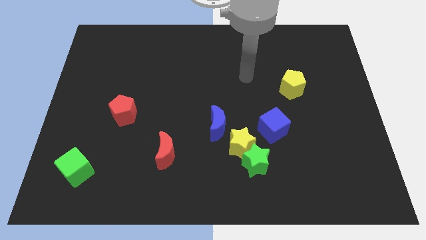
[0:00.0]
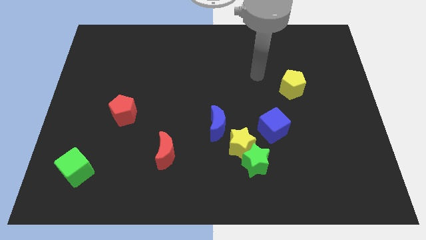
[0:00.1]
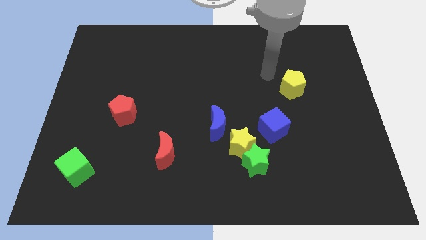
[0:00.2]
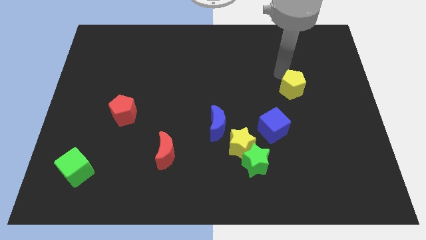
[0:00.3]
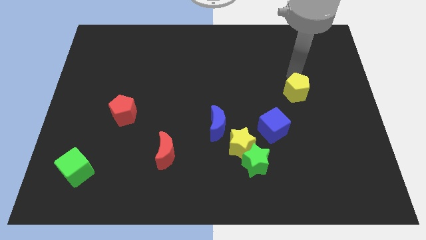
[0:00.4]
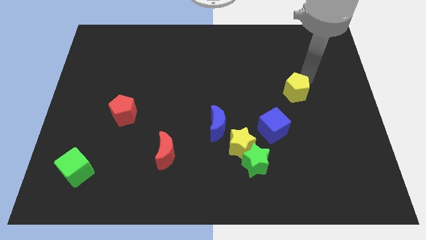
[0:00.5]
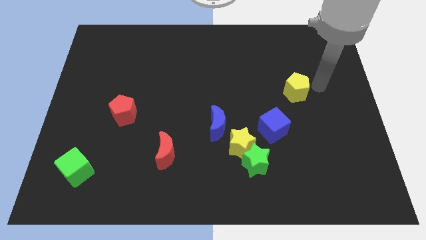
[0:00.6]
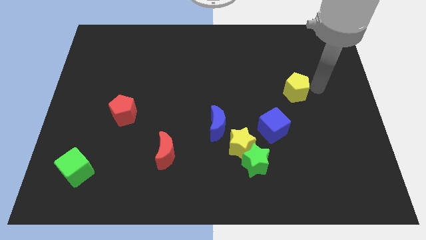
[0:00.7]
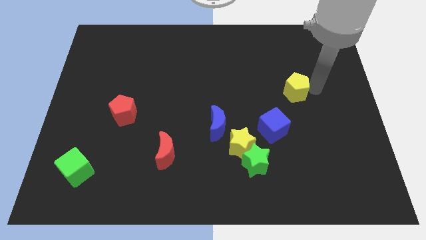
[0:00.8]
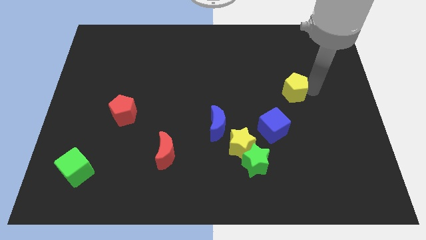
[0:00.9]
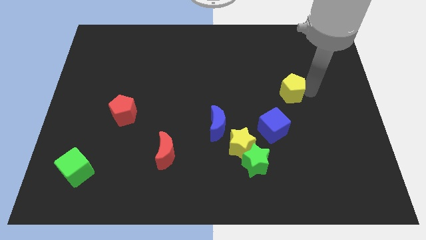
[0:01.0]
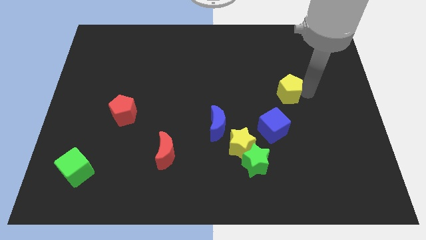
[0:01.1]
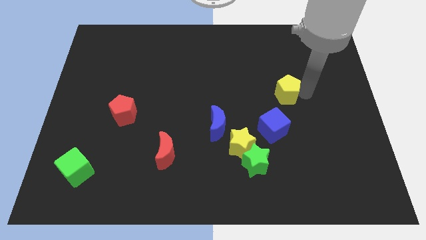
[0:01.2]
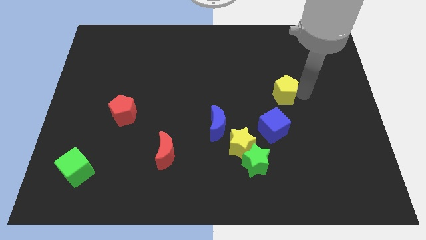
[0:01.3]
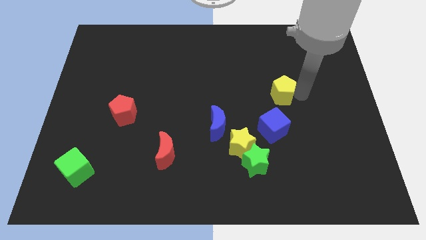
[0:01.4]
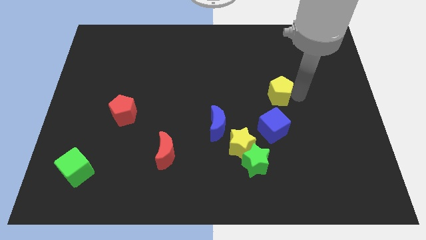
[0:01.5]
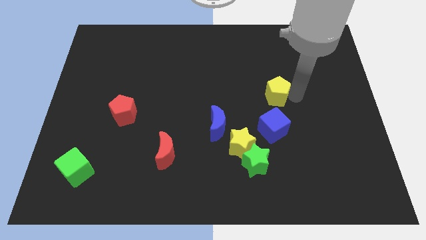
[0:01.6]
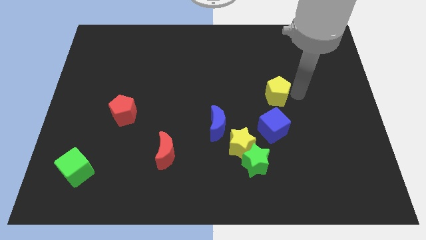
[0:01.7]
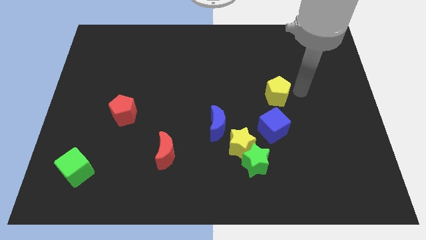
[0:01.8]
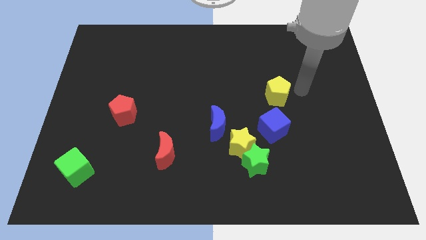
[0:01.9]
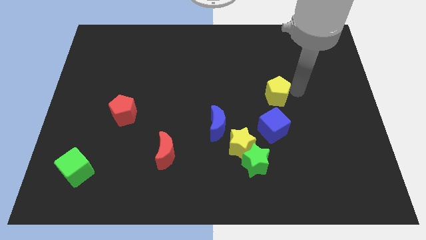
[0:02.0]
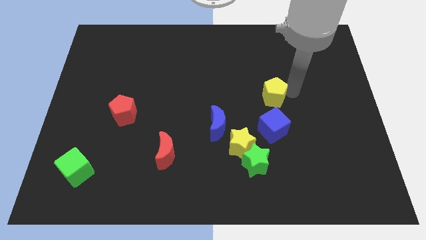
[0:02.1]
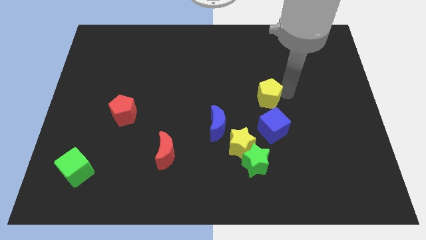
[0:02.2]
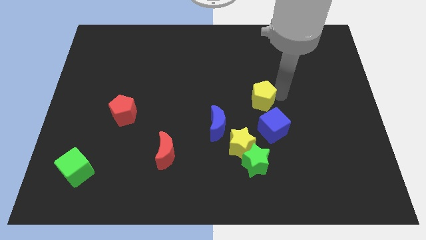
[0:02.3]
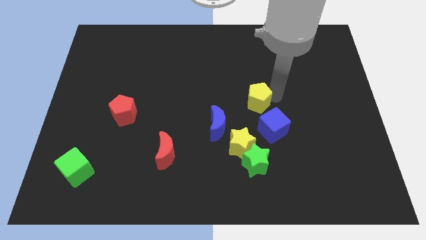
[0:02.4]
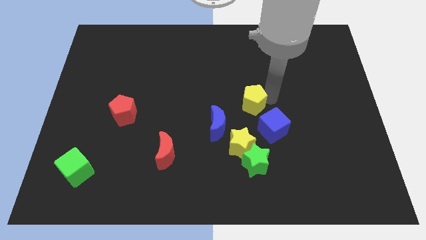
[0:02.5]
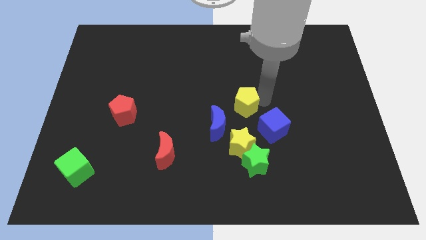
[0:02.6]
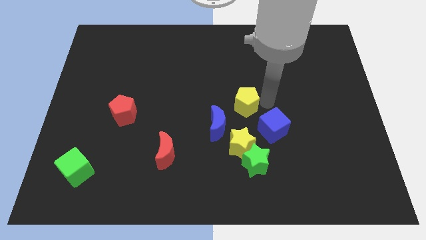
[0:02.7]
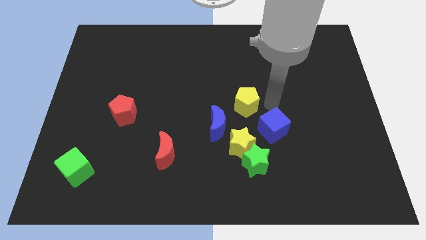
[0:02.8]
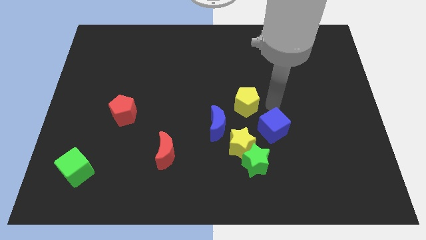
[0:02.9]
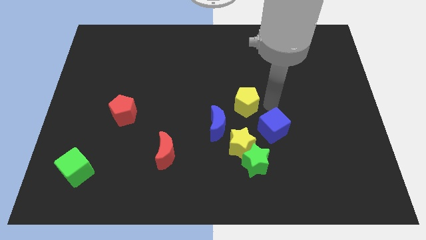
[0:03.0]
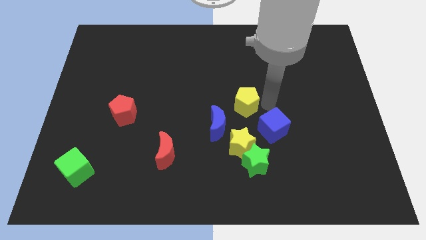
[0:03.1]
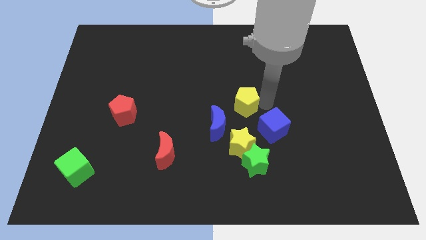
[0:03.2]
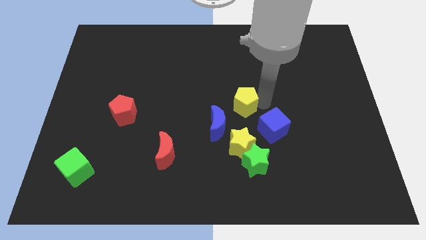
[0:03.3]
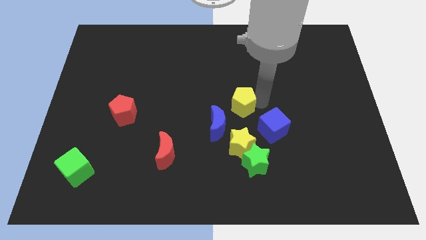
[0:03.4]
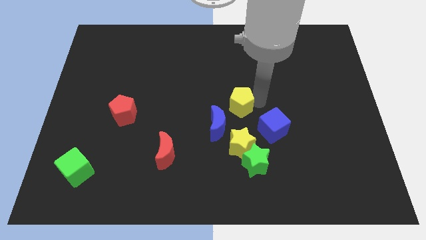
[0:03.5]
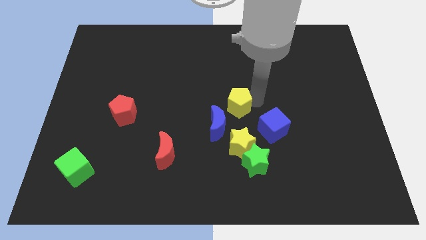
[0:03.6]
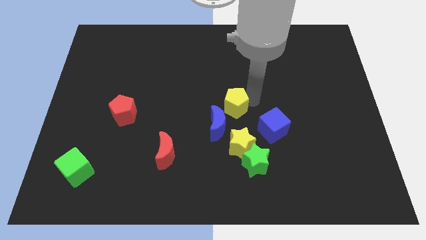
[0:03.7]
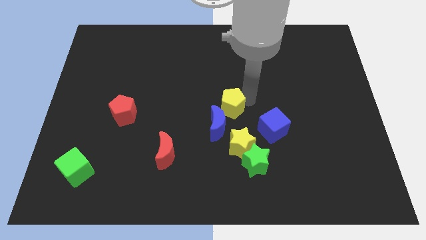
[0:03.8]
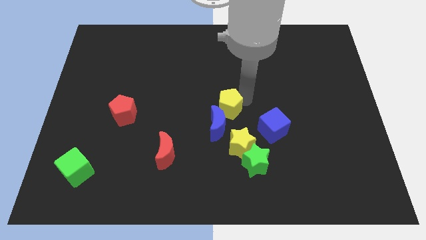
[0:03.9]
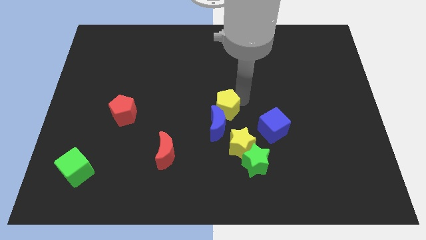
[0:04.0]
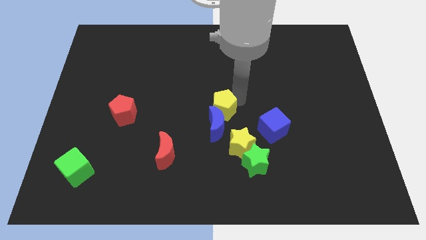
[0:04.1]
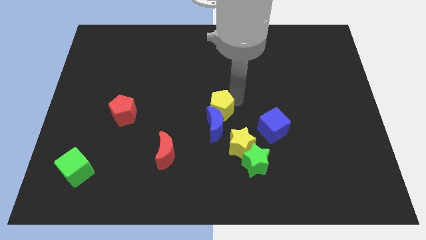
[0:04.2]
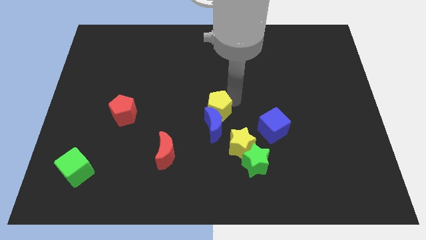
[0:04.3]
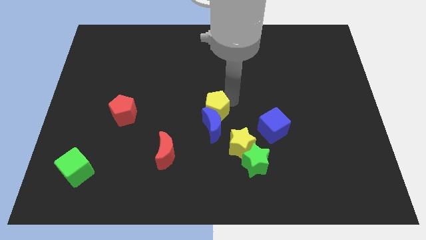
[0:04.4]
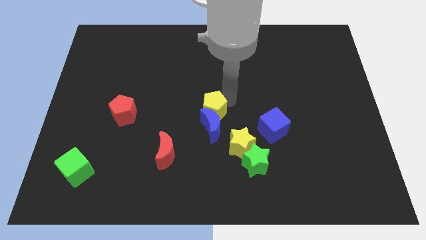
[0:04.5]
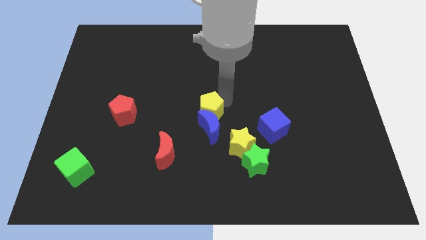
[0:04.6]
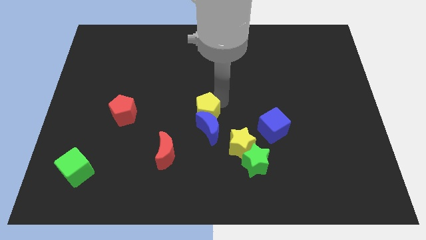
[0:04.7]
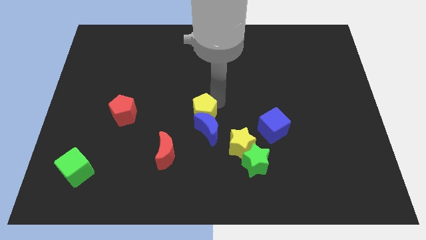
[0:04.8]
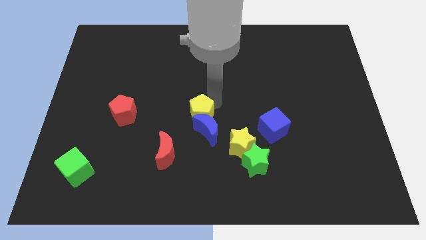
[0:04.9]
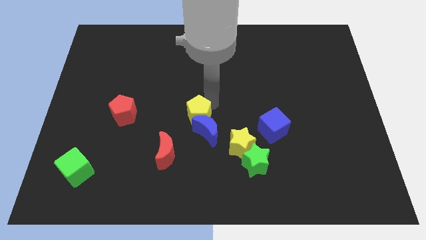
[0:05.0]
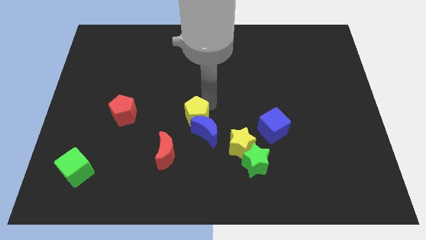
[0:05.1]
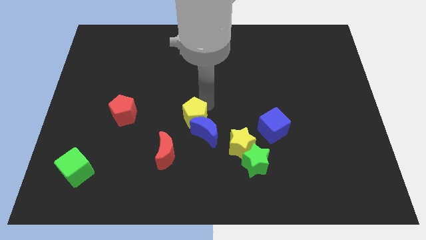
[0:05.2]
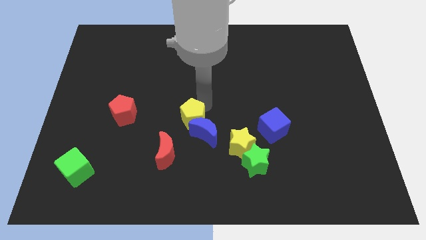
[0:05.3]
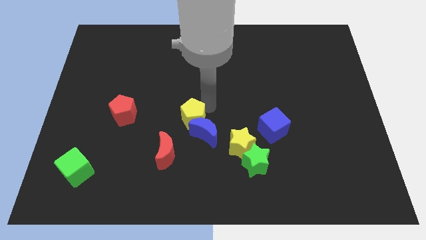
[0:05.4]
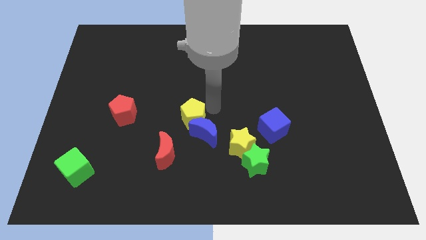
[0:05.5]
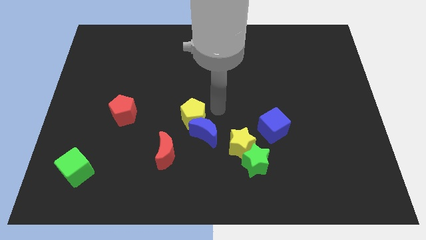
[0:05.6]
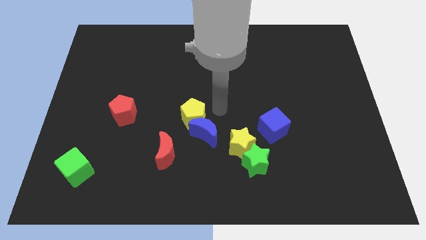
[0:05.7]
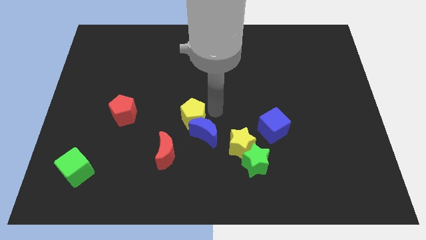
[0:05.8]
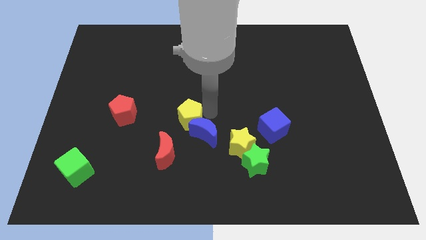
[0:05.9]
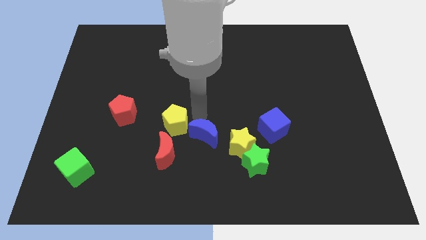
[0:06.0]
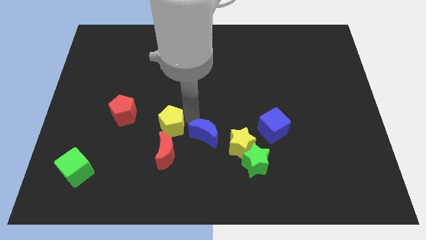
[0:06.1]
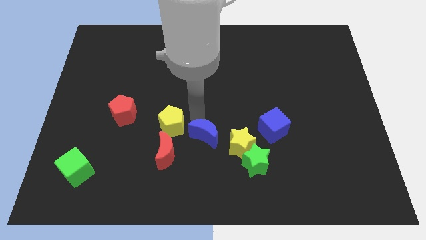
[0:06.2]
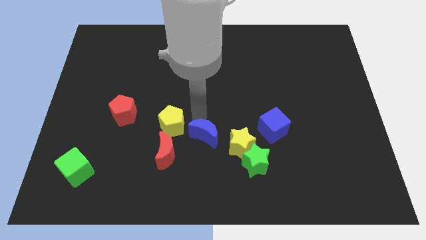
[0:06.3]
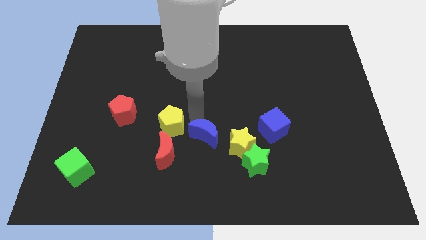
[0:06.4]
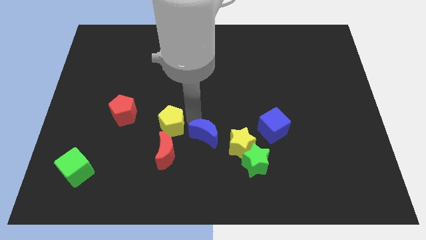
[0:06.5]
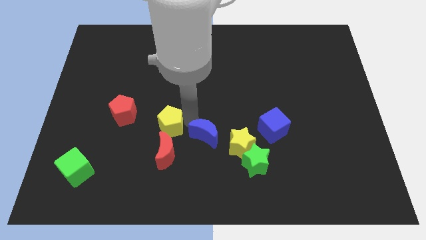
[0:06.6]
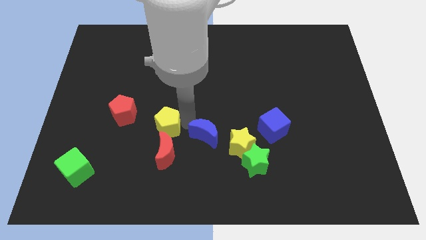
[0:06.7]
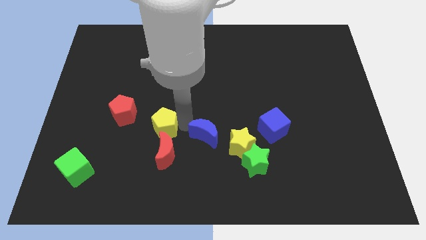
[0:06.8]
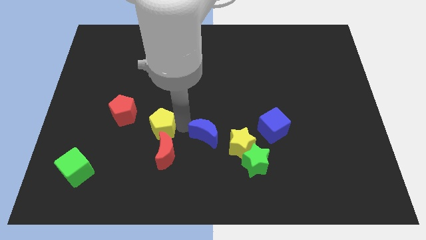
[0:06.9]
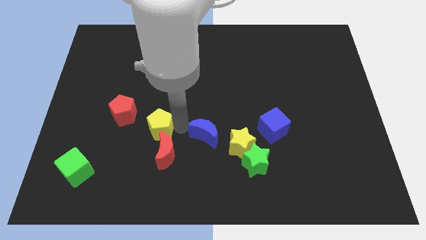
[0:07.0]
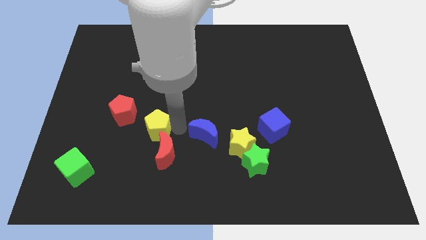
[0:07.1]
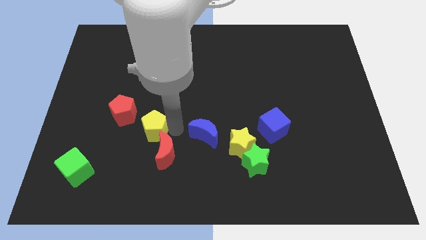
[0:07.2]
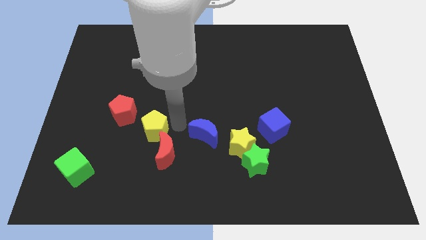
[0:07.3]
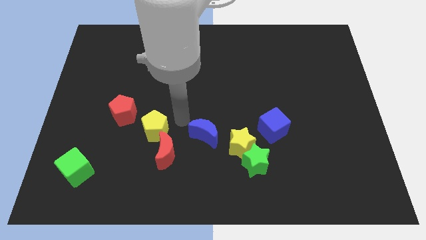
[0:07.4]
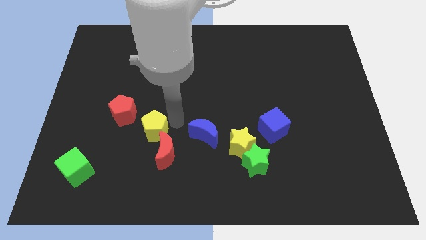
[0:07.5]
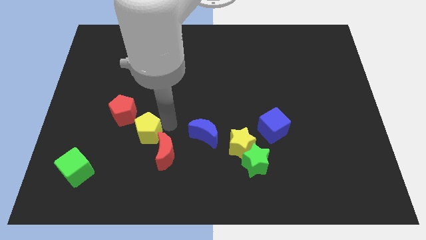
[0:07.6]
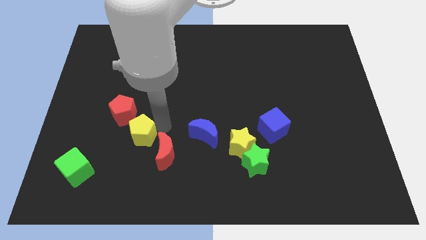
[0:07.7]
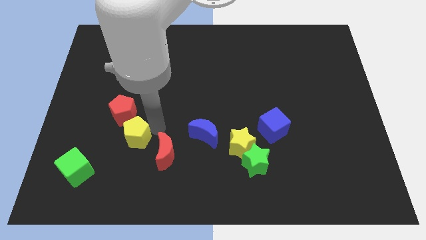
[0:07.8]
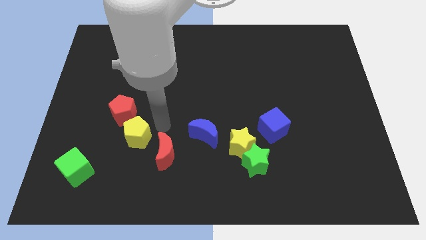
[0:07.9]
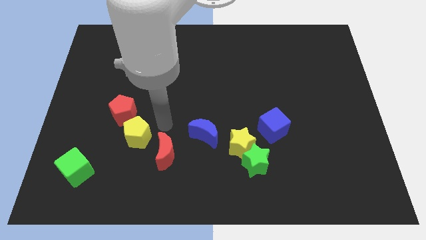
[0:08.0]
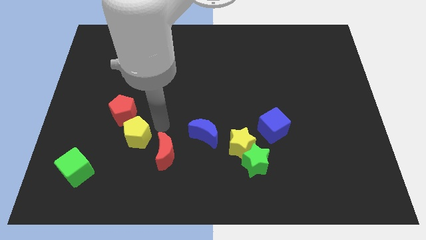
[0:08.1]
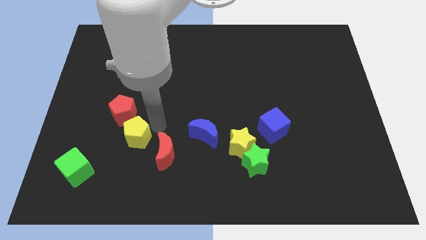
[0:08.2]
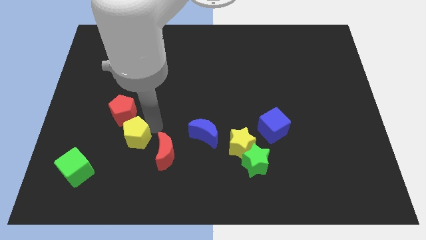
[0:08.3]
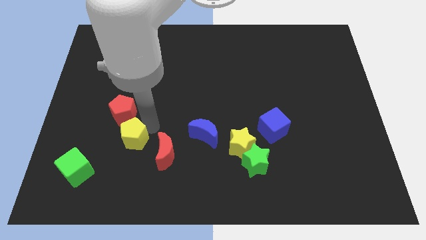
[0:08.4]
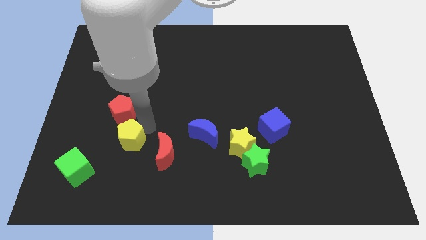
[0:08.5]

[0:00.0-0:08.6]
put the yellow pentagon diagonally up and to the right of the green cube
